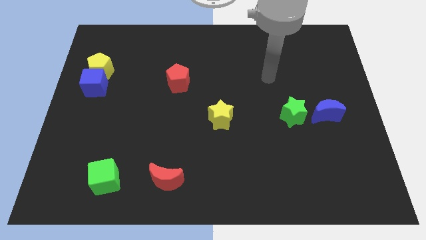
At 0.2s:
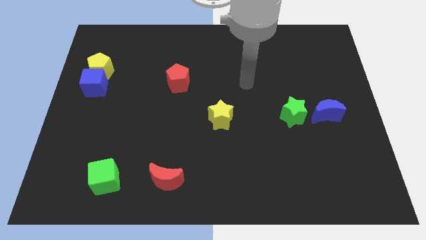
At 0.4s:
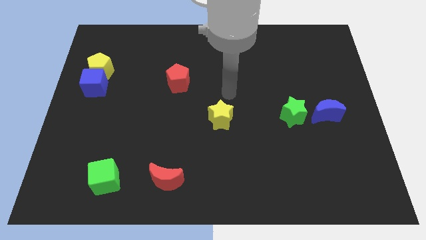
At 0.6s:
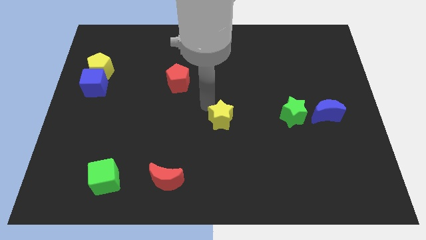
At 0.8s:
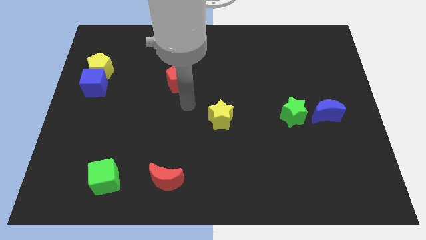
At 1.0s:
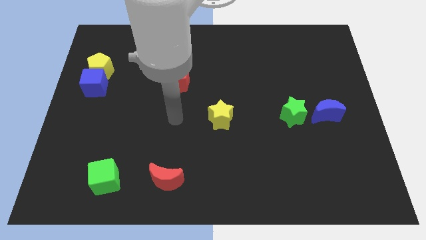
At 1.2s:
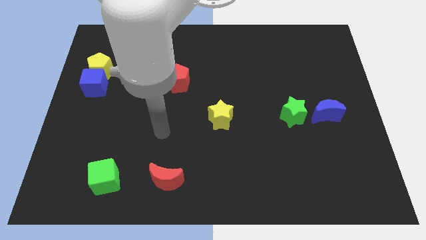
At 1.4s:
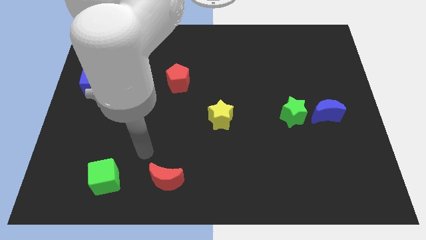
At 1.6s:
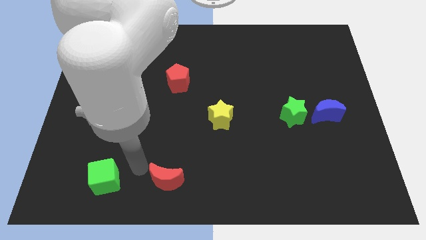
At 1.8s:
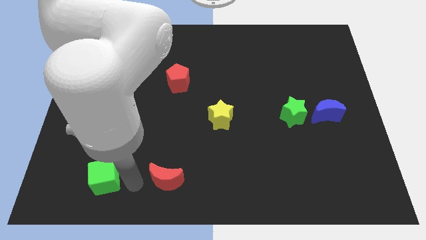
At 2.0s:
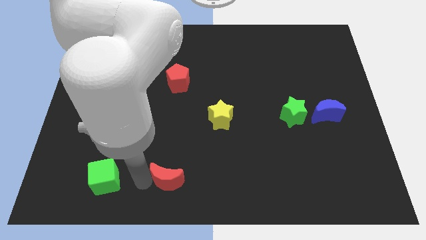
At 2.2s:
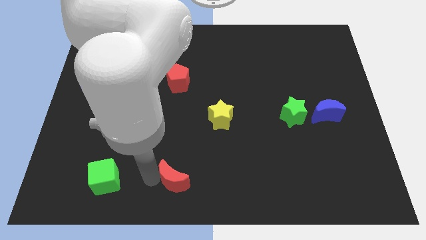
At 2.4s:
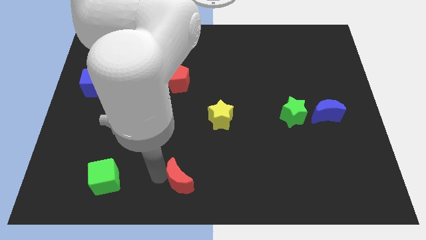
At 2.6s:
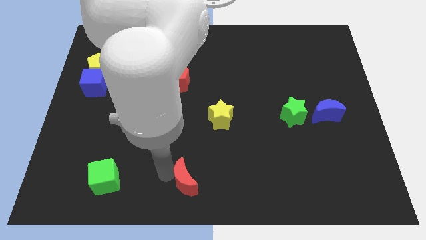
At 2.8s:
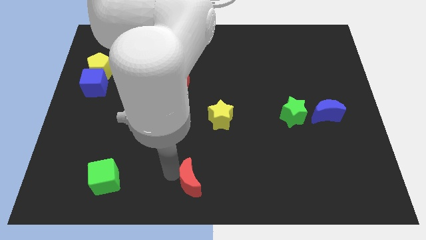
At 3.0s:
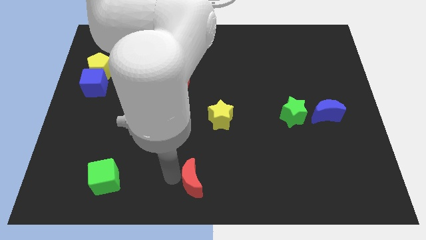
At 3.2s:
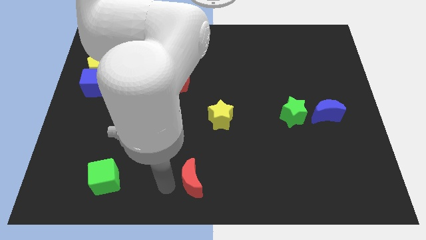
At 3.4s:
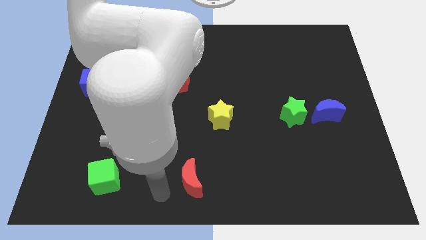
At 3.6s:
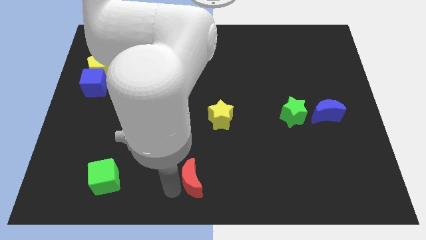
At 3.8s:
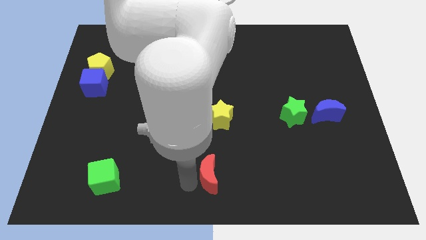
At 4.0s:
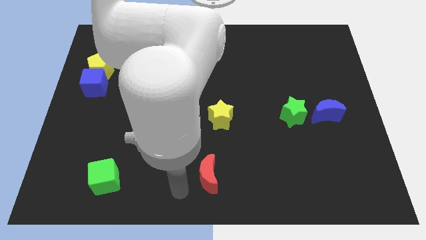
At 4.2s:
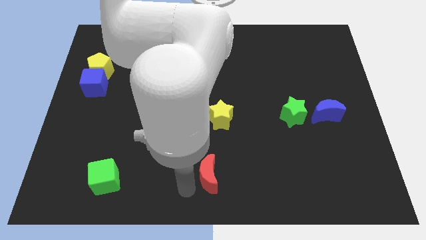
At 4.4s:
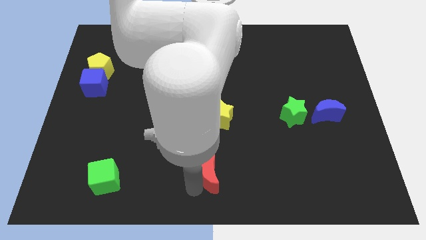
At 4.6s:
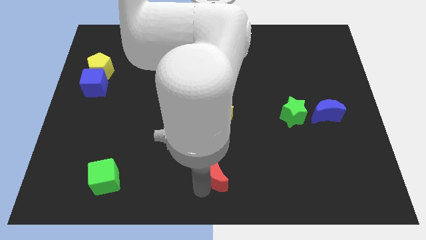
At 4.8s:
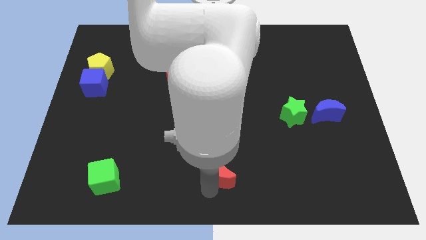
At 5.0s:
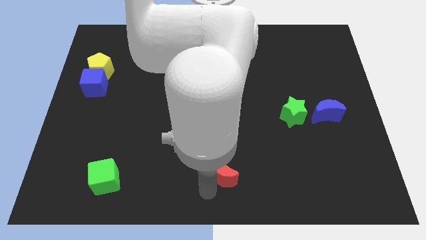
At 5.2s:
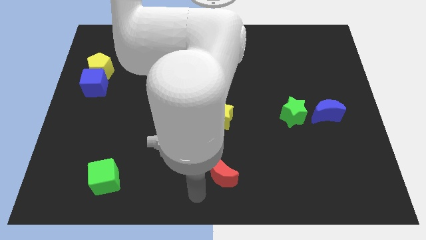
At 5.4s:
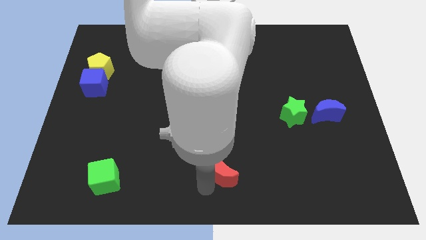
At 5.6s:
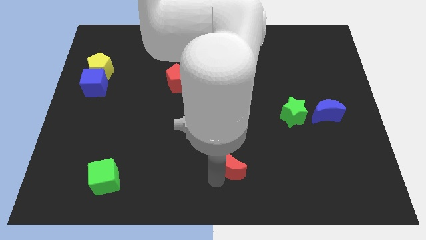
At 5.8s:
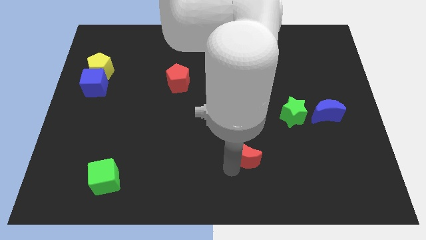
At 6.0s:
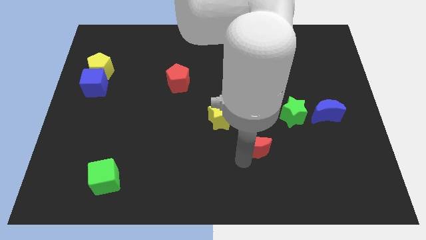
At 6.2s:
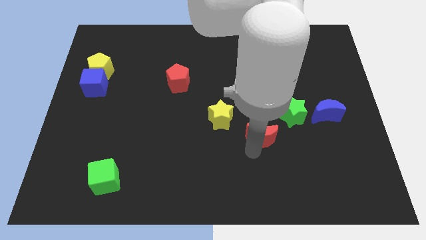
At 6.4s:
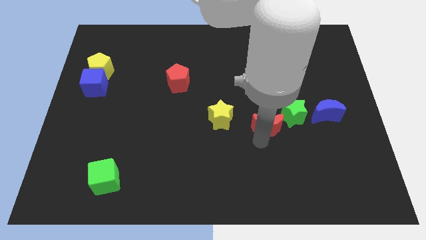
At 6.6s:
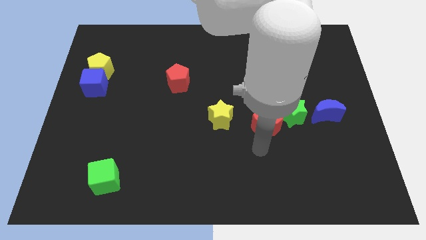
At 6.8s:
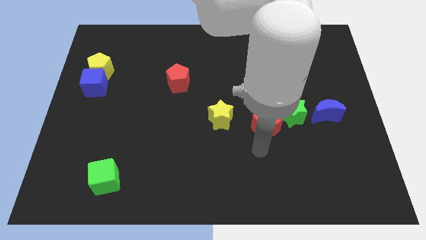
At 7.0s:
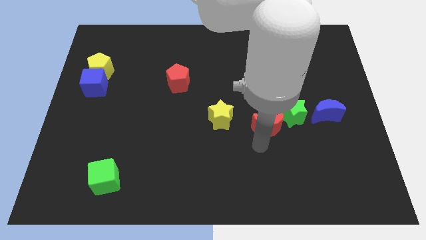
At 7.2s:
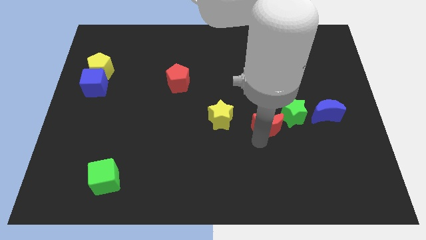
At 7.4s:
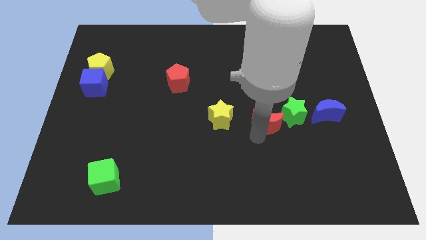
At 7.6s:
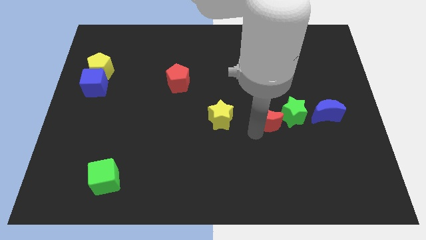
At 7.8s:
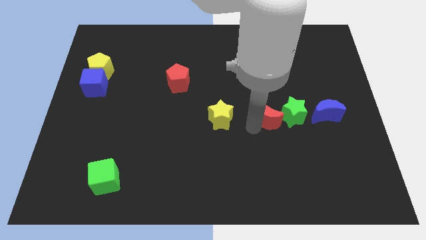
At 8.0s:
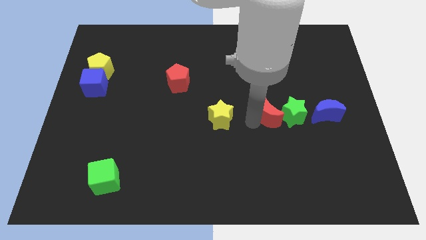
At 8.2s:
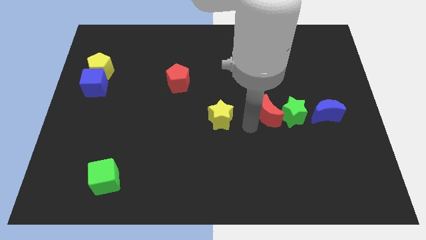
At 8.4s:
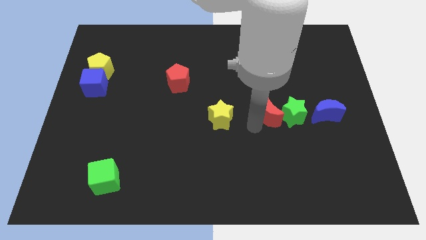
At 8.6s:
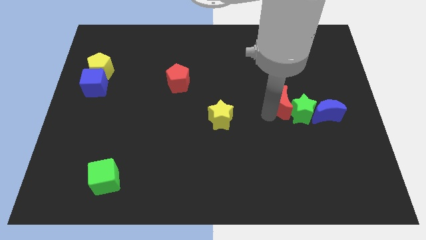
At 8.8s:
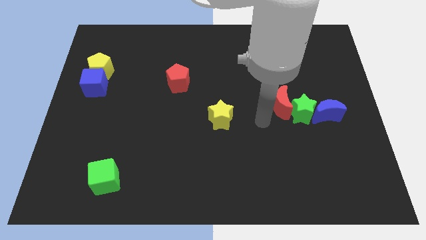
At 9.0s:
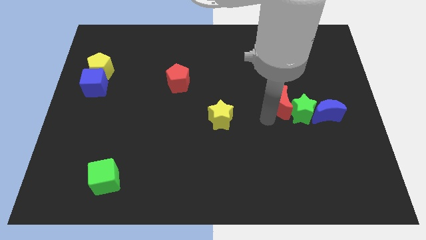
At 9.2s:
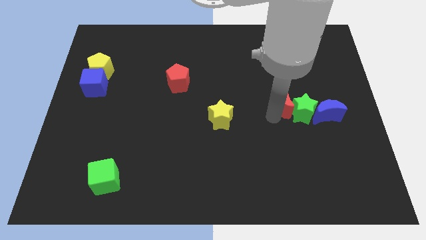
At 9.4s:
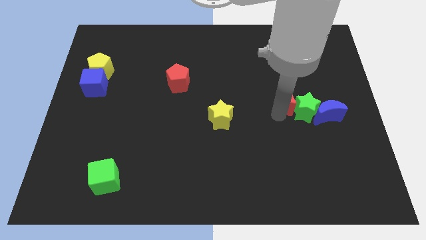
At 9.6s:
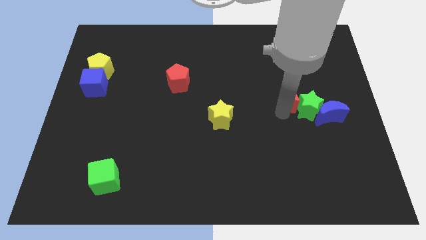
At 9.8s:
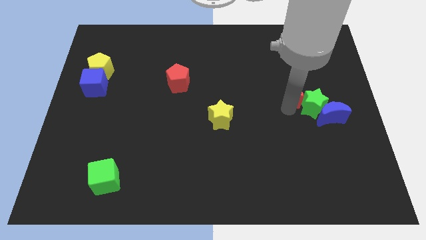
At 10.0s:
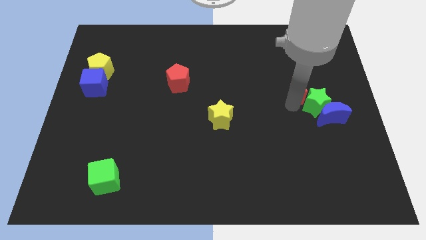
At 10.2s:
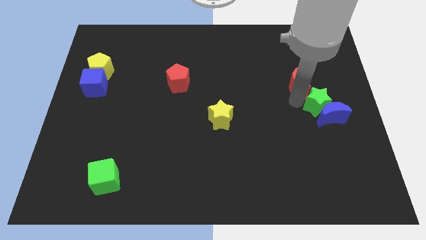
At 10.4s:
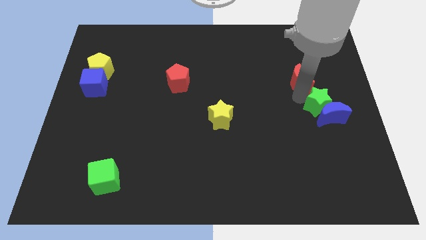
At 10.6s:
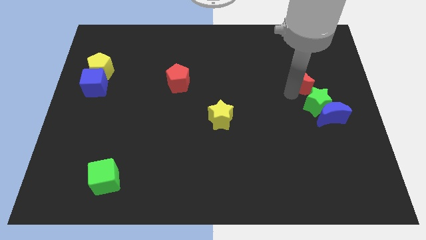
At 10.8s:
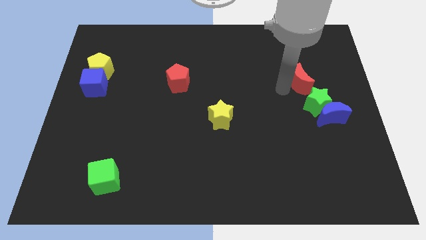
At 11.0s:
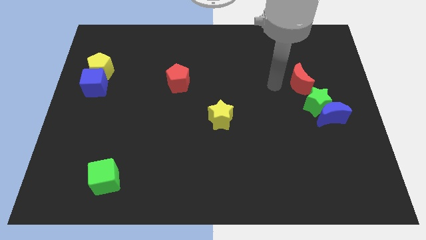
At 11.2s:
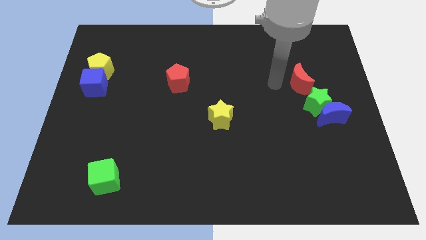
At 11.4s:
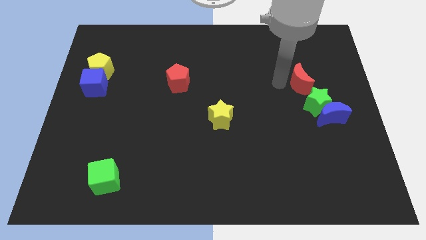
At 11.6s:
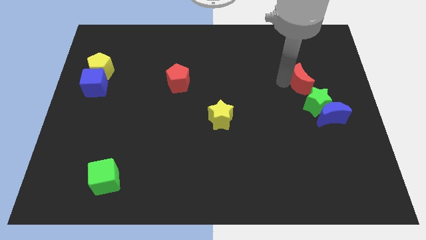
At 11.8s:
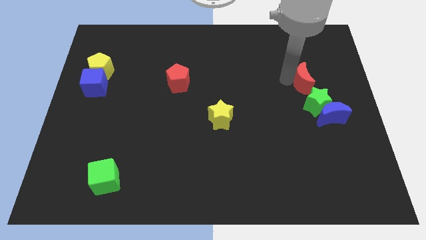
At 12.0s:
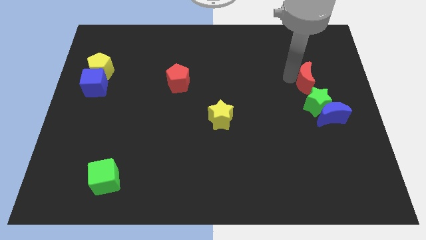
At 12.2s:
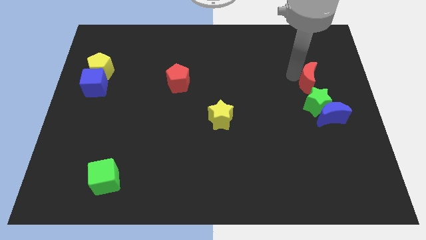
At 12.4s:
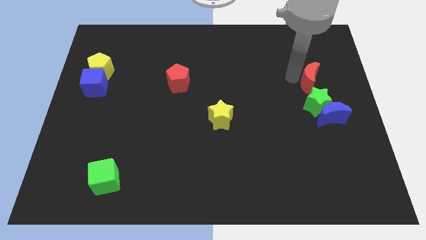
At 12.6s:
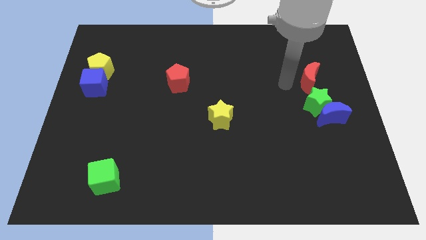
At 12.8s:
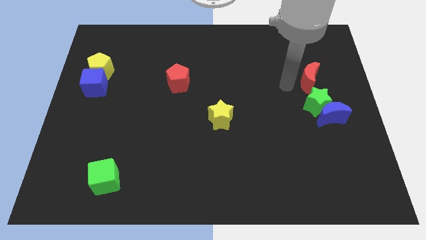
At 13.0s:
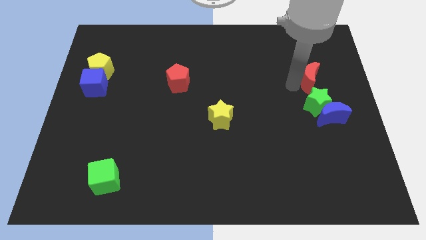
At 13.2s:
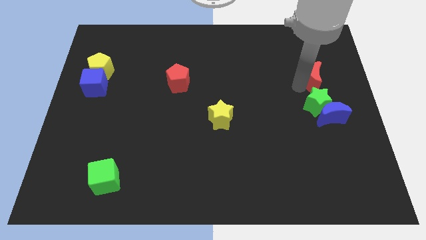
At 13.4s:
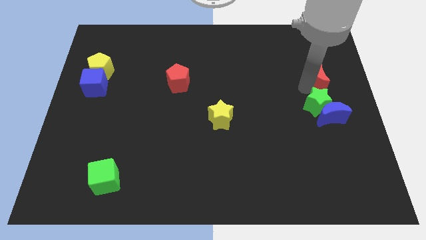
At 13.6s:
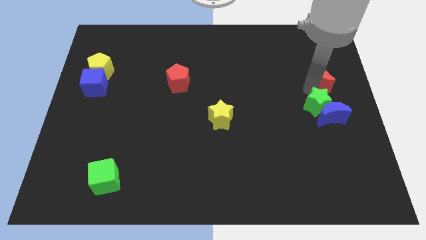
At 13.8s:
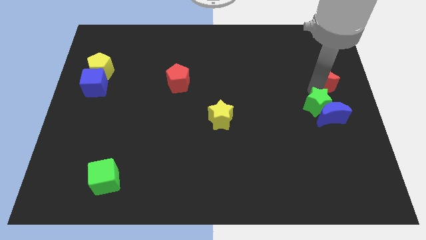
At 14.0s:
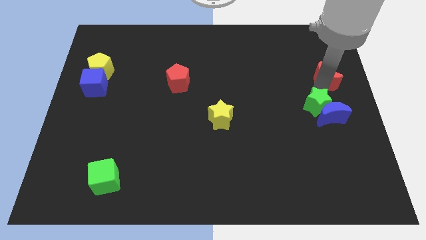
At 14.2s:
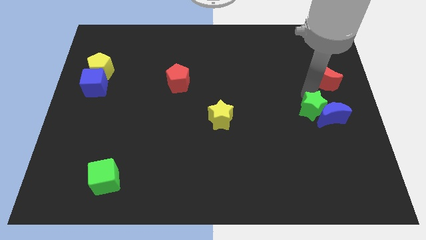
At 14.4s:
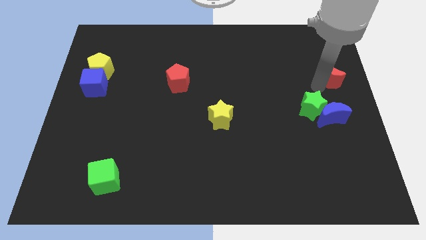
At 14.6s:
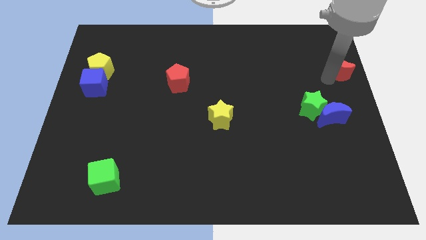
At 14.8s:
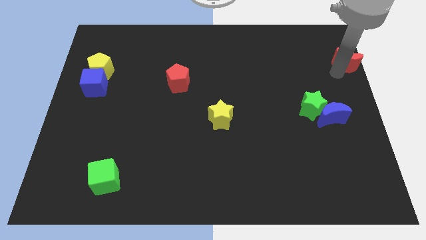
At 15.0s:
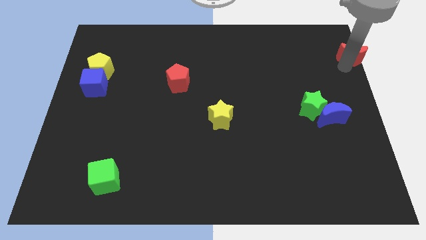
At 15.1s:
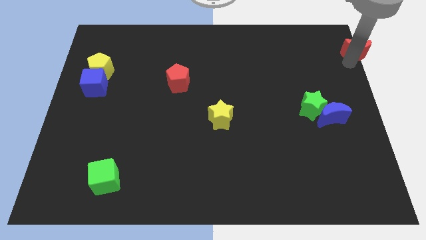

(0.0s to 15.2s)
move the red moon to the top right
